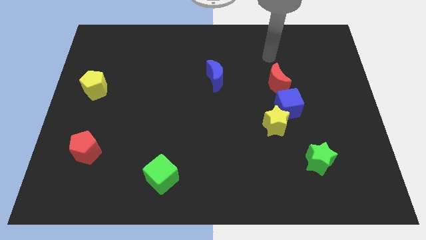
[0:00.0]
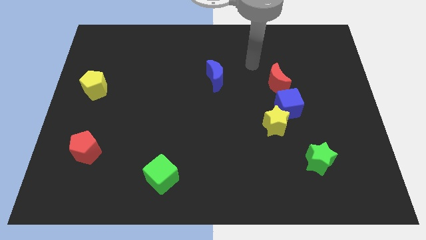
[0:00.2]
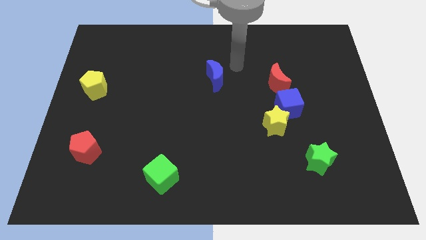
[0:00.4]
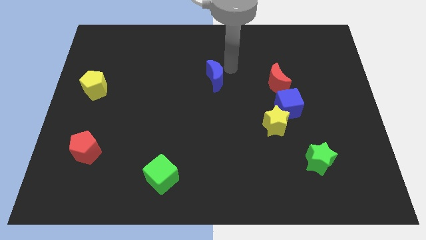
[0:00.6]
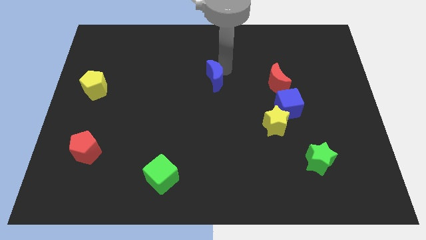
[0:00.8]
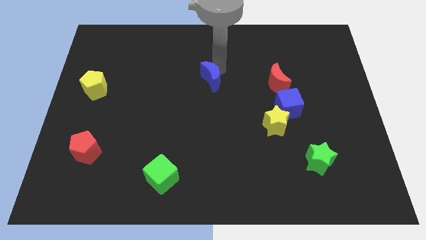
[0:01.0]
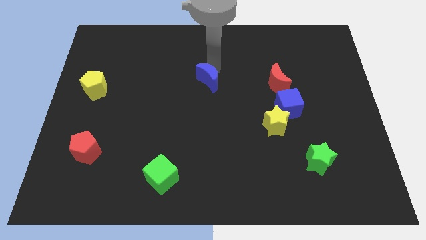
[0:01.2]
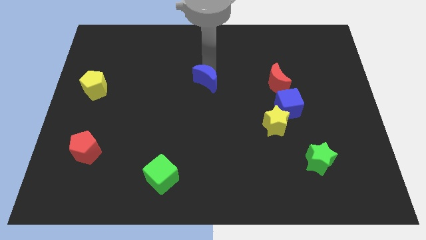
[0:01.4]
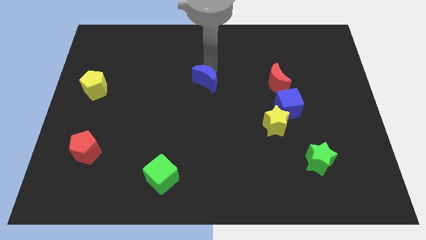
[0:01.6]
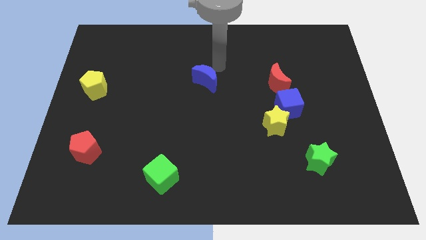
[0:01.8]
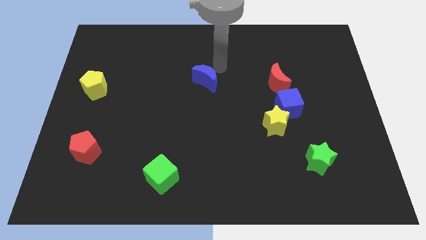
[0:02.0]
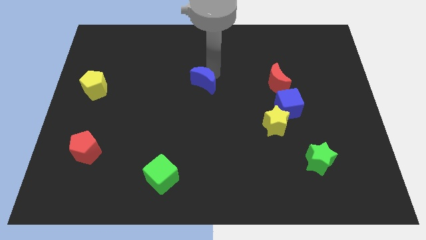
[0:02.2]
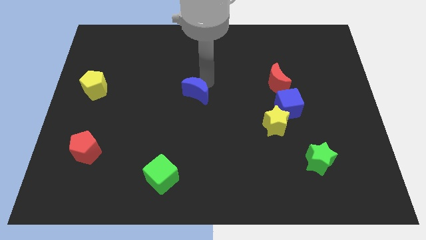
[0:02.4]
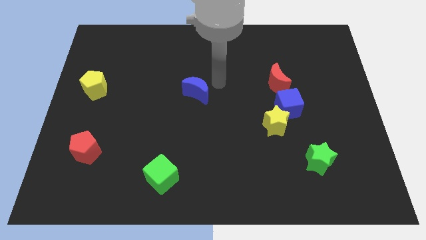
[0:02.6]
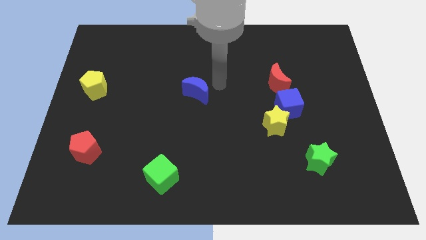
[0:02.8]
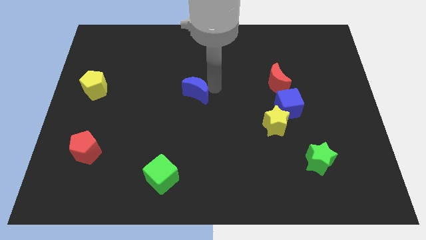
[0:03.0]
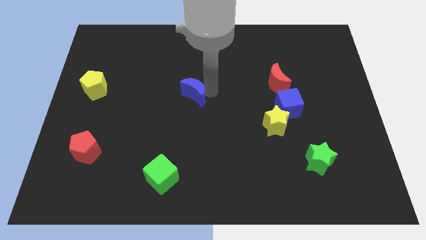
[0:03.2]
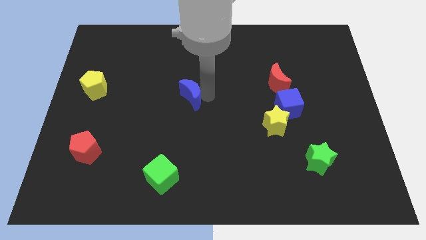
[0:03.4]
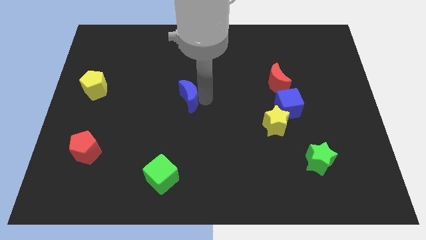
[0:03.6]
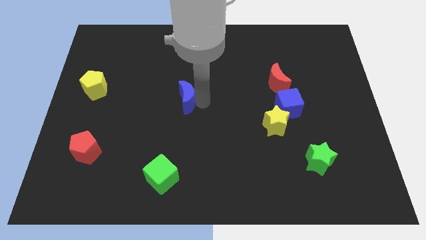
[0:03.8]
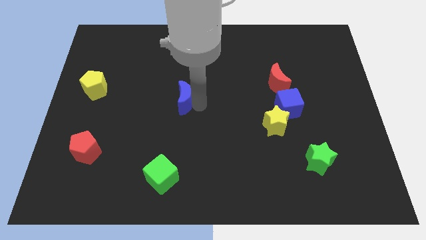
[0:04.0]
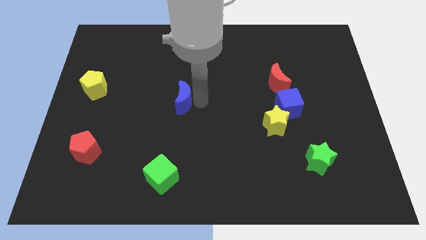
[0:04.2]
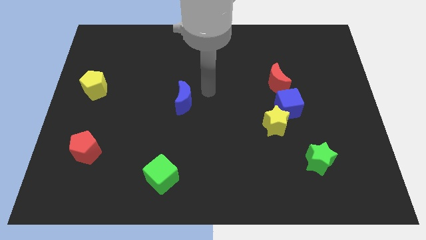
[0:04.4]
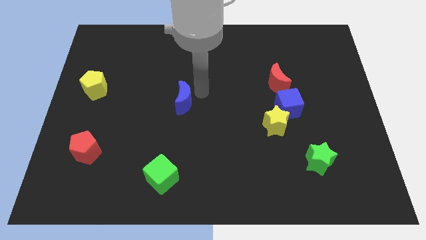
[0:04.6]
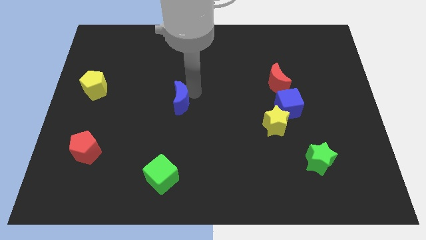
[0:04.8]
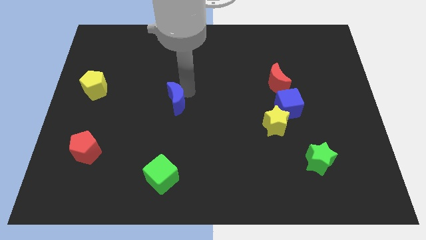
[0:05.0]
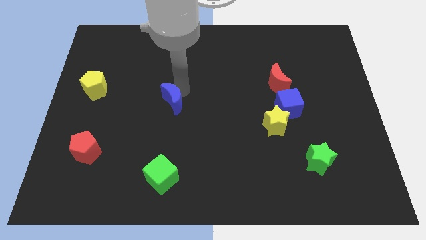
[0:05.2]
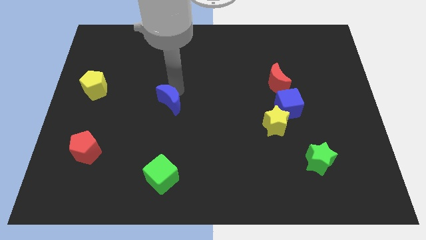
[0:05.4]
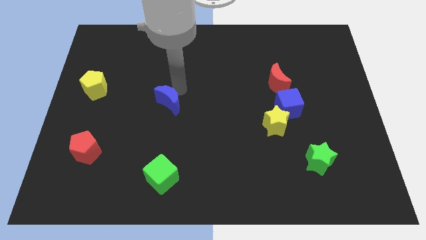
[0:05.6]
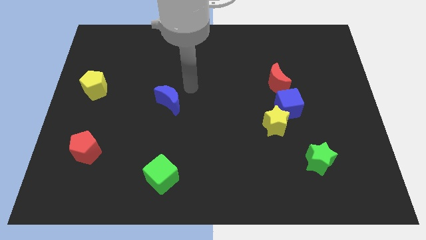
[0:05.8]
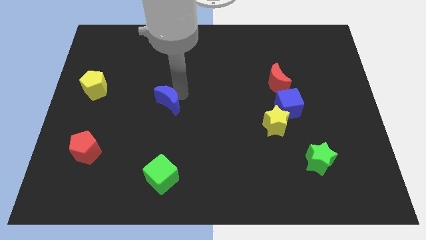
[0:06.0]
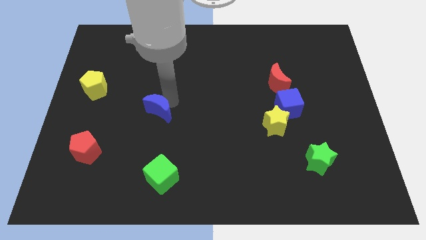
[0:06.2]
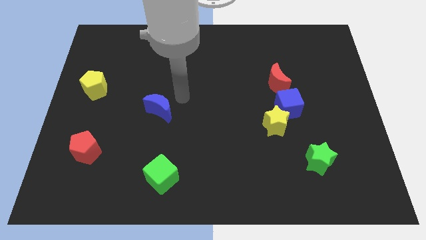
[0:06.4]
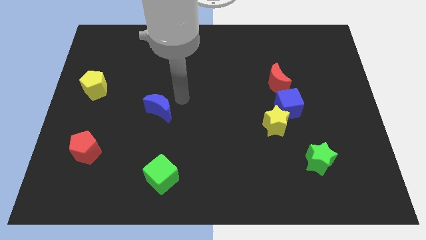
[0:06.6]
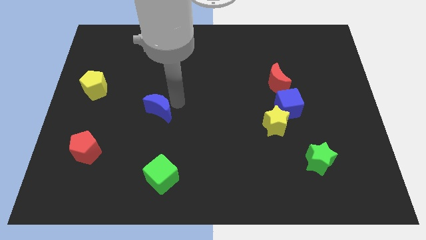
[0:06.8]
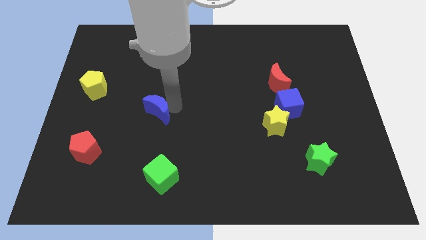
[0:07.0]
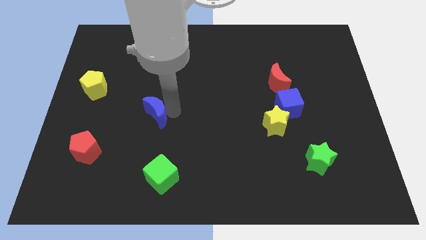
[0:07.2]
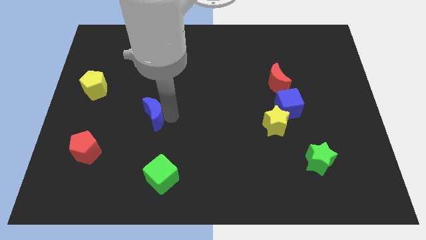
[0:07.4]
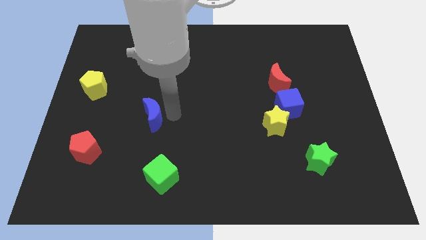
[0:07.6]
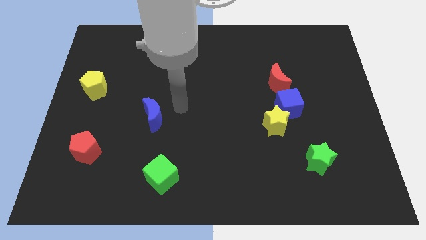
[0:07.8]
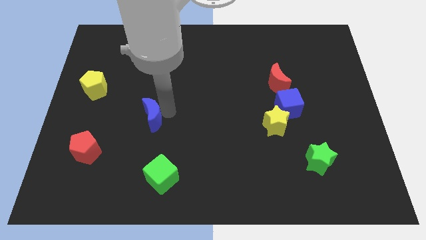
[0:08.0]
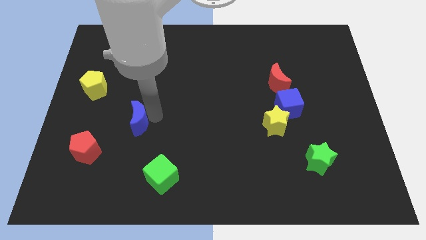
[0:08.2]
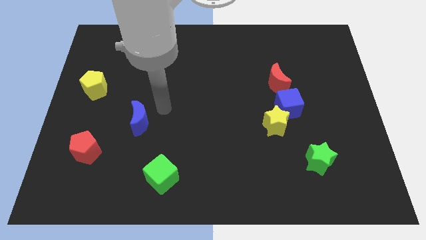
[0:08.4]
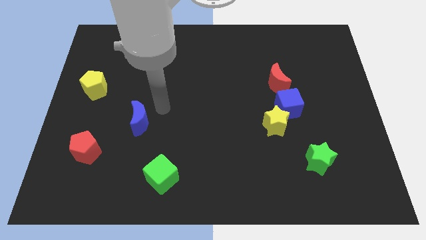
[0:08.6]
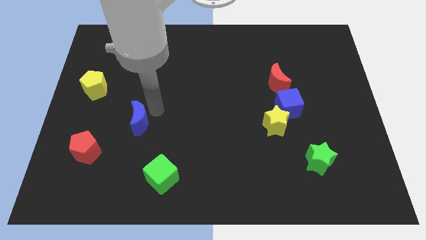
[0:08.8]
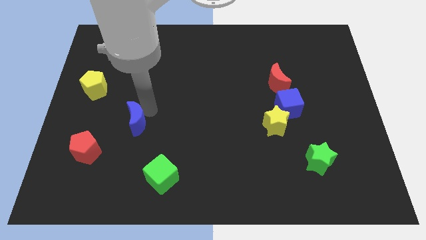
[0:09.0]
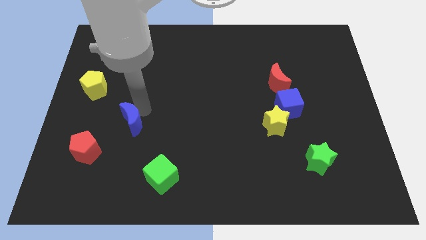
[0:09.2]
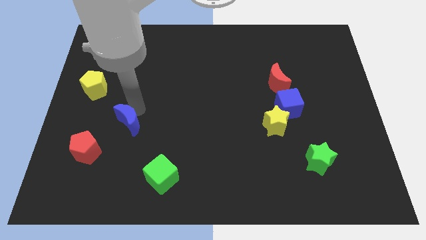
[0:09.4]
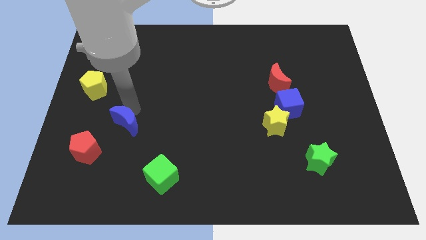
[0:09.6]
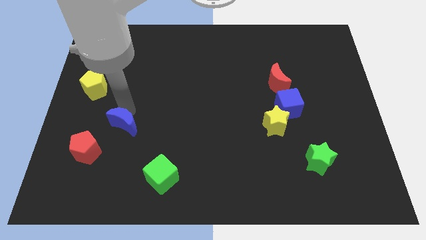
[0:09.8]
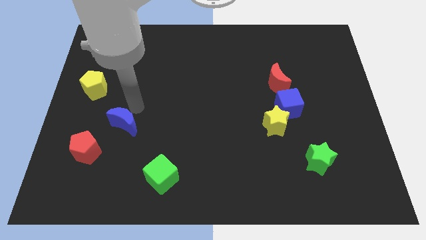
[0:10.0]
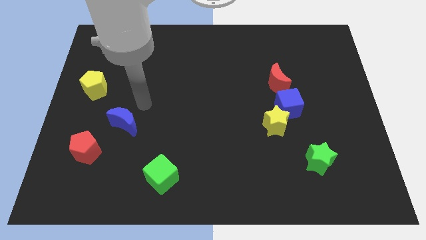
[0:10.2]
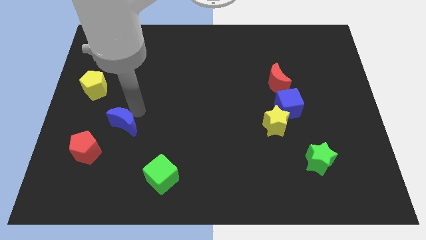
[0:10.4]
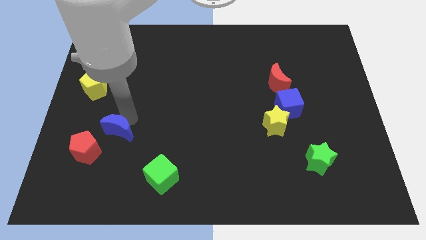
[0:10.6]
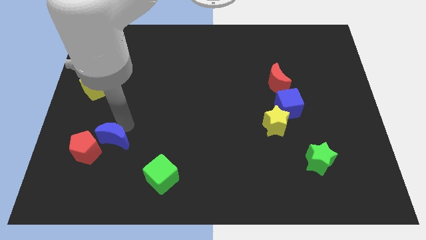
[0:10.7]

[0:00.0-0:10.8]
slide the blue moon close to the red pentagon

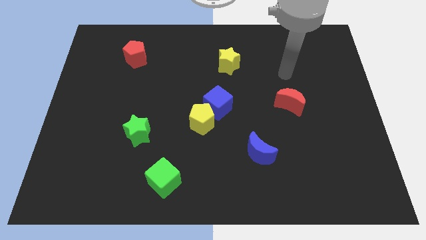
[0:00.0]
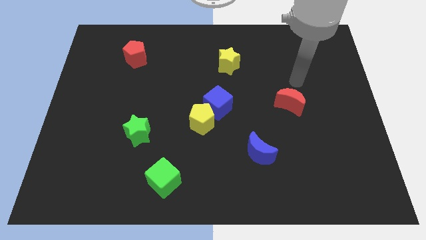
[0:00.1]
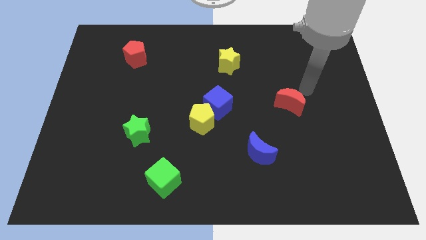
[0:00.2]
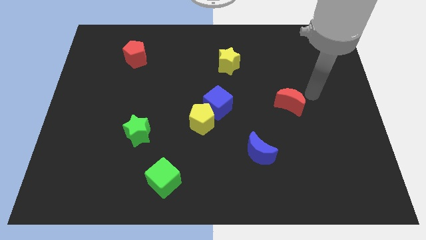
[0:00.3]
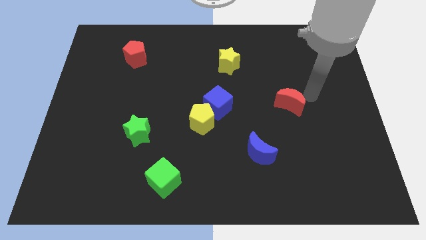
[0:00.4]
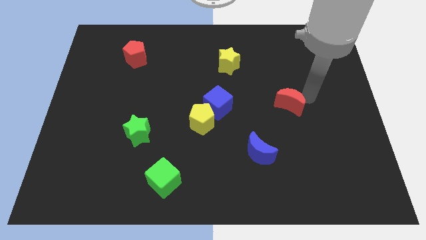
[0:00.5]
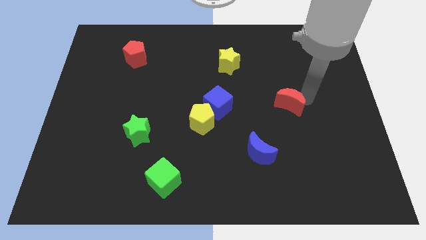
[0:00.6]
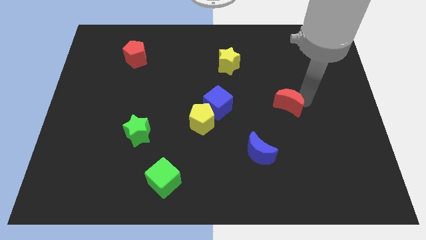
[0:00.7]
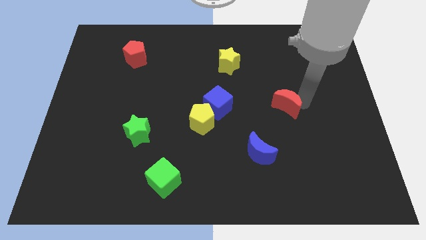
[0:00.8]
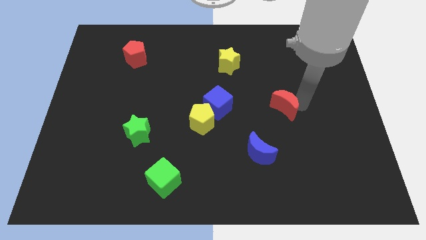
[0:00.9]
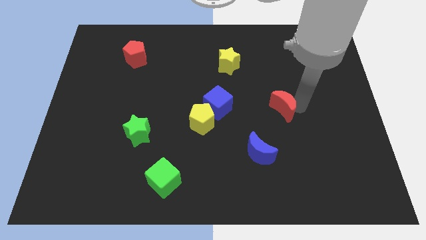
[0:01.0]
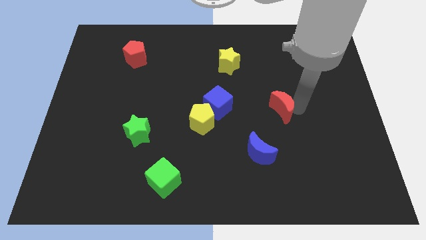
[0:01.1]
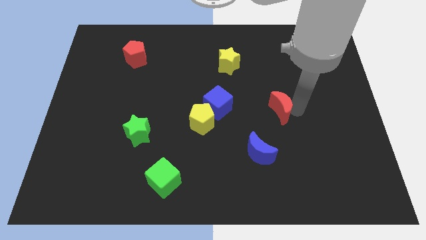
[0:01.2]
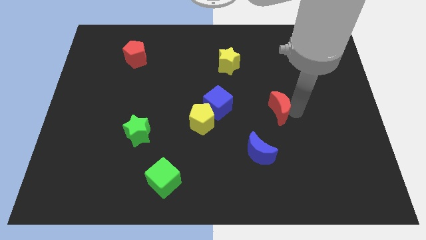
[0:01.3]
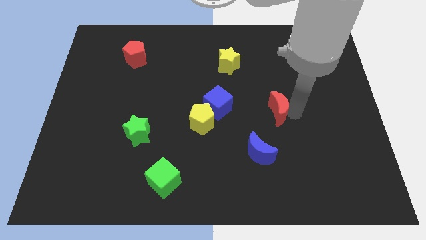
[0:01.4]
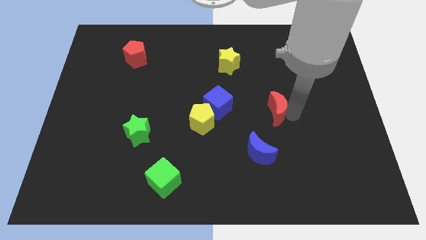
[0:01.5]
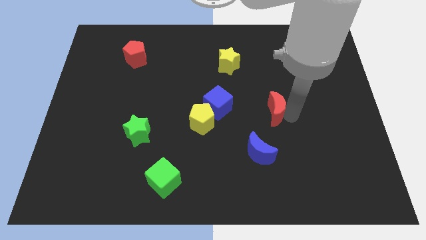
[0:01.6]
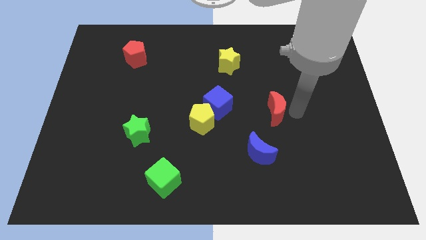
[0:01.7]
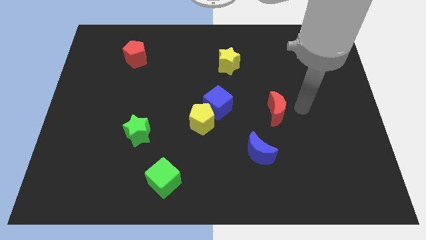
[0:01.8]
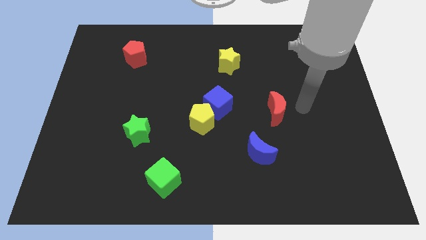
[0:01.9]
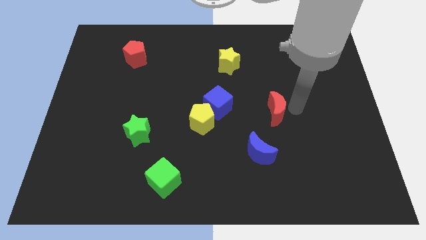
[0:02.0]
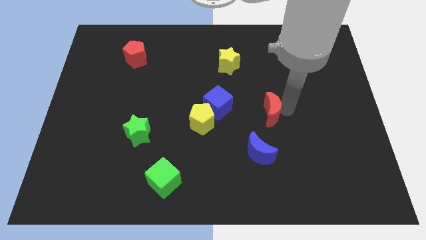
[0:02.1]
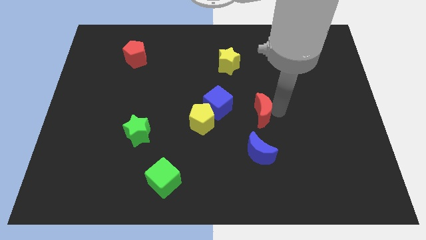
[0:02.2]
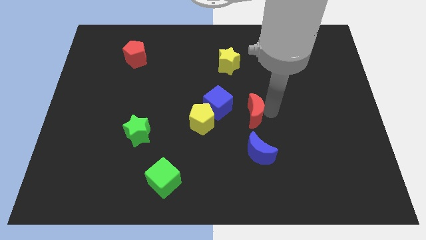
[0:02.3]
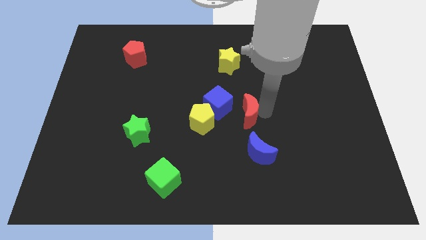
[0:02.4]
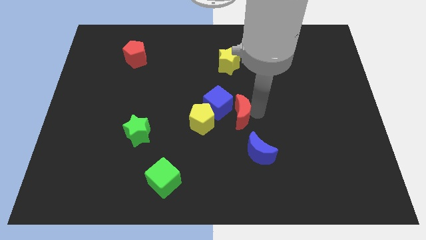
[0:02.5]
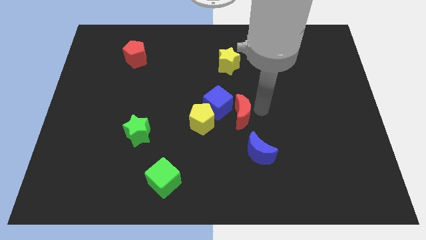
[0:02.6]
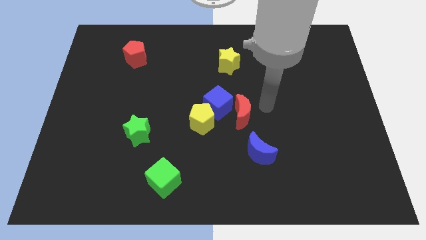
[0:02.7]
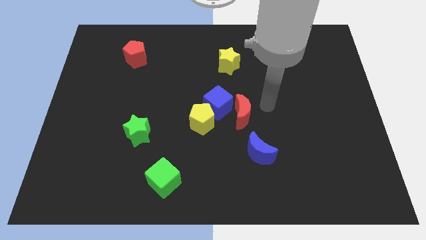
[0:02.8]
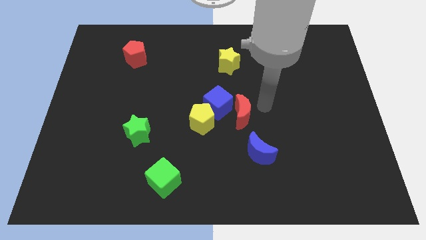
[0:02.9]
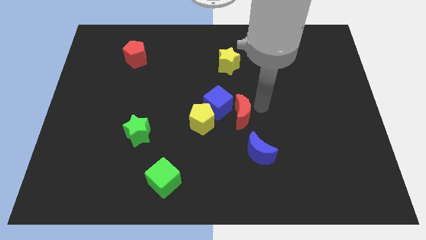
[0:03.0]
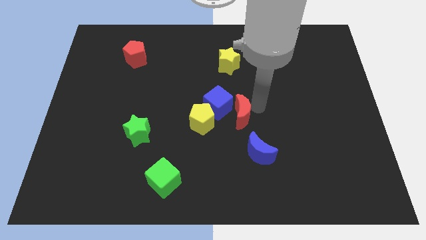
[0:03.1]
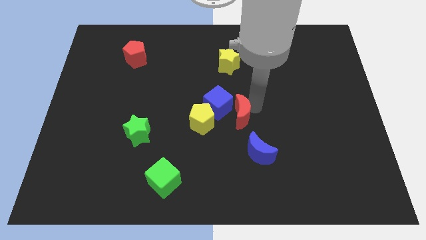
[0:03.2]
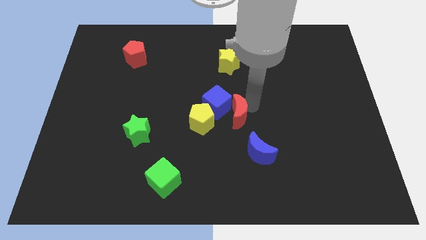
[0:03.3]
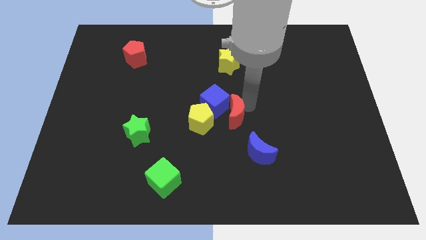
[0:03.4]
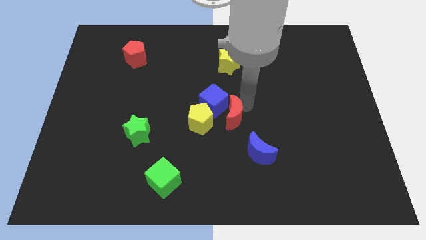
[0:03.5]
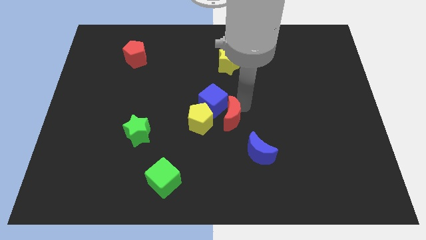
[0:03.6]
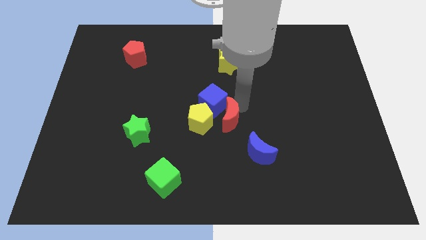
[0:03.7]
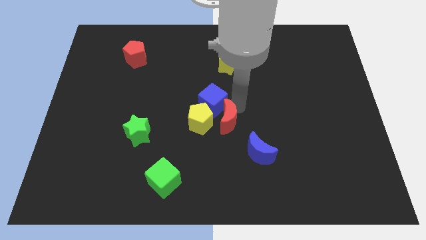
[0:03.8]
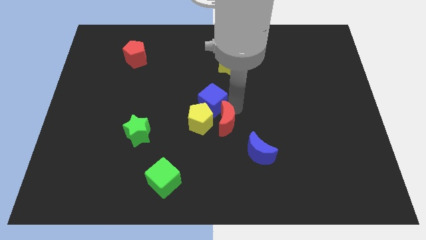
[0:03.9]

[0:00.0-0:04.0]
push the red moon towards the yellow pentagon
